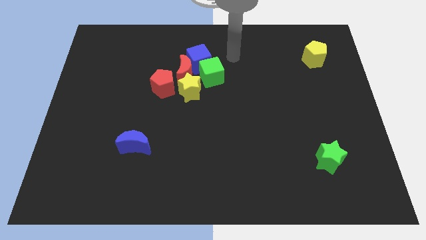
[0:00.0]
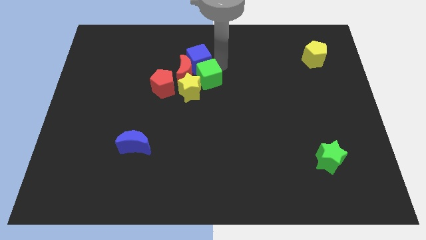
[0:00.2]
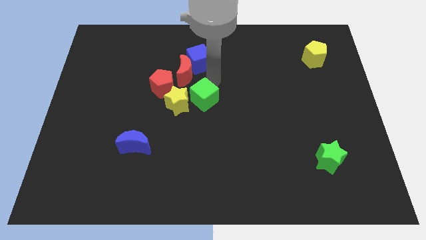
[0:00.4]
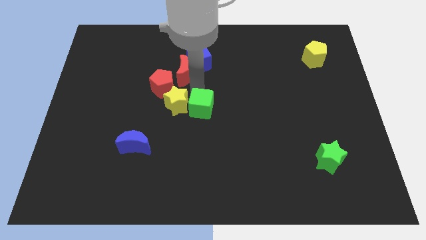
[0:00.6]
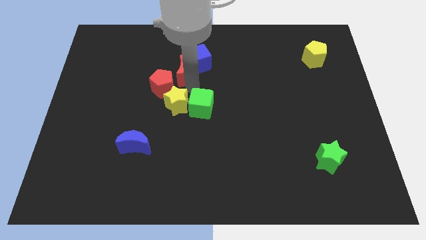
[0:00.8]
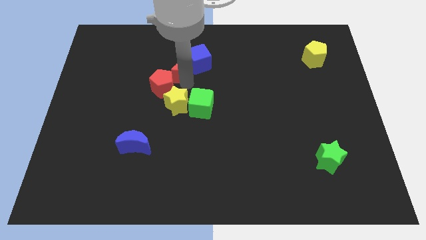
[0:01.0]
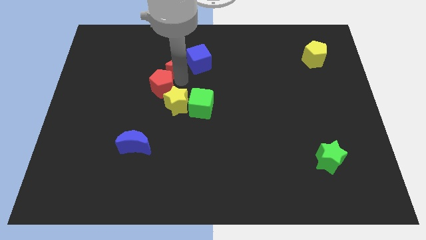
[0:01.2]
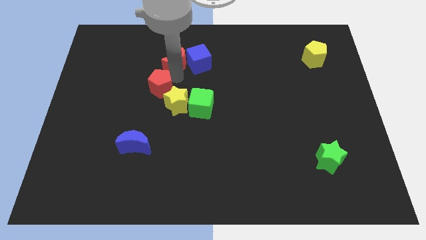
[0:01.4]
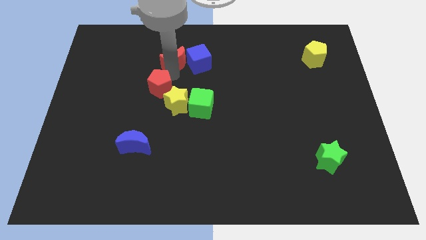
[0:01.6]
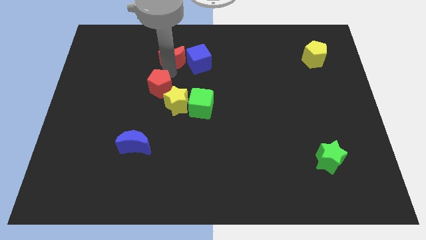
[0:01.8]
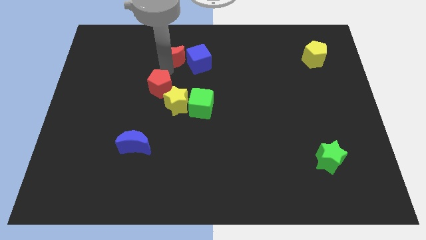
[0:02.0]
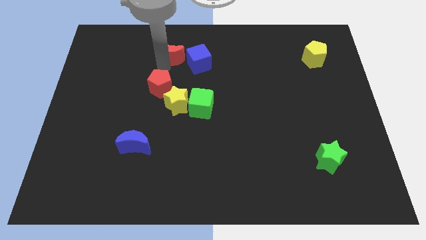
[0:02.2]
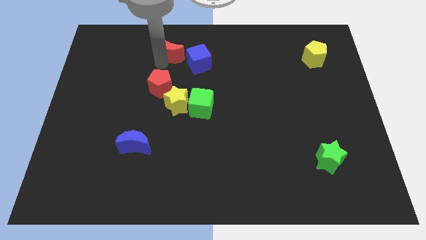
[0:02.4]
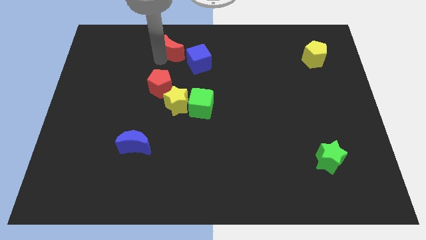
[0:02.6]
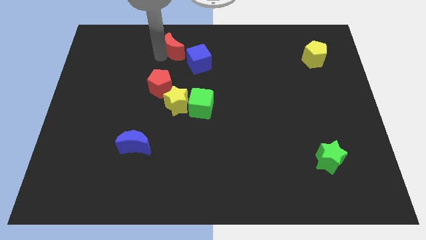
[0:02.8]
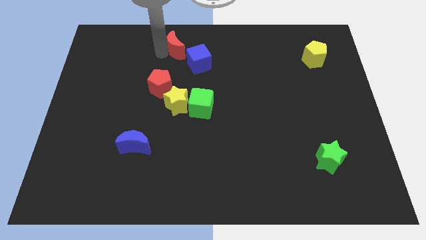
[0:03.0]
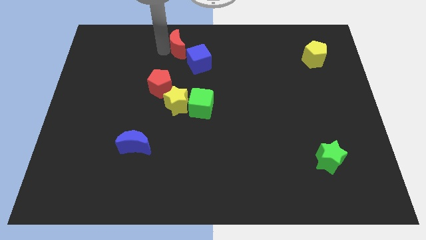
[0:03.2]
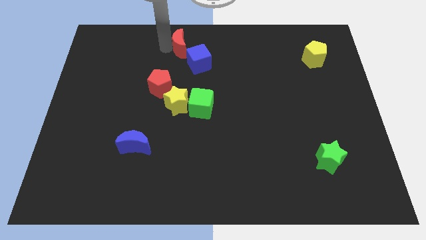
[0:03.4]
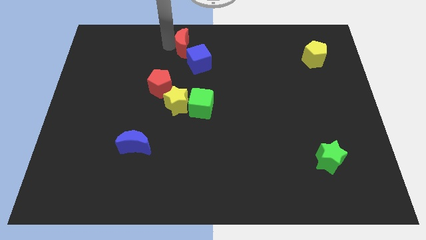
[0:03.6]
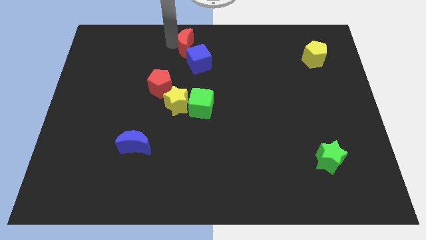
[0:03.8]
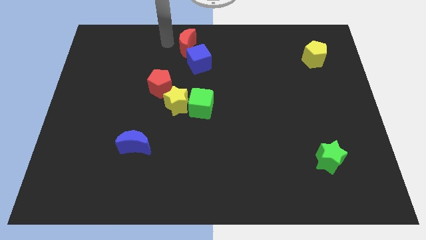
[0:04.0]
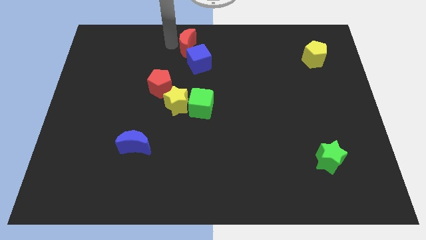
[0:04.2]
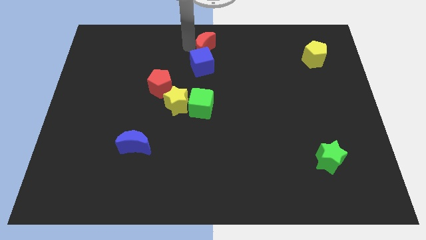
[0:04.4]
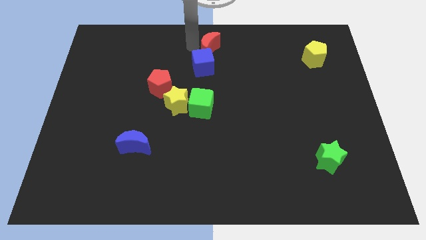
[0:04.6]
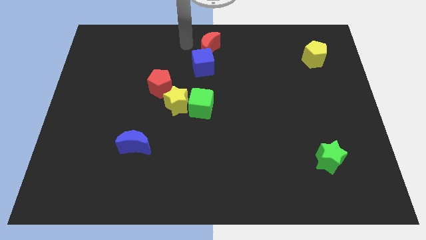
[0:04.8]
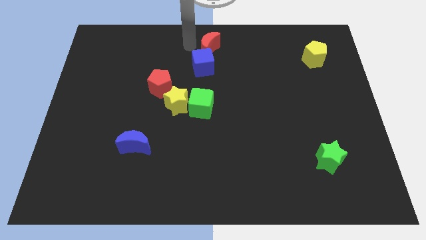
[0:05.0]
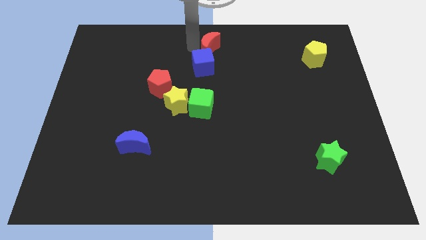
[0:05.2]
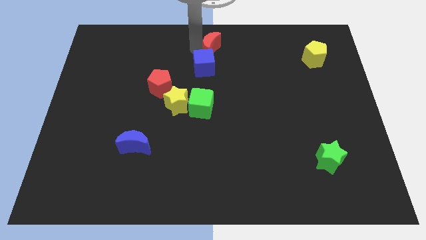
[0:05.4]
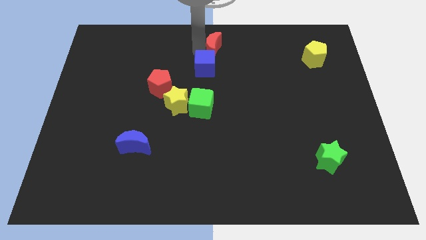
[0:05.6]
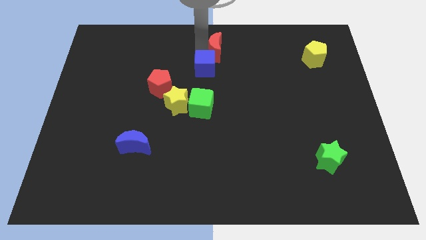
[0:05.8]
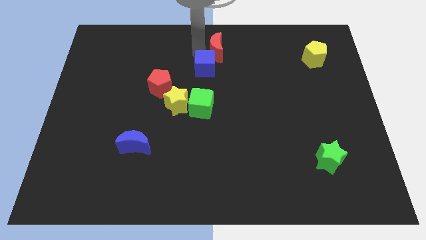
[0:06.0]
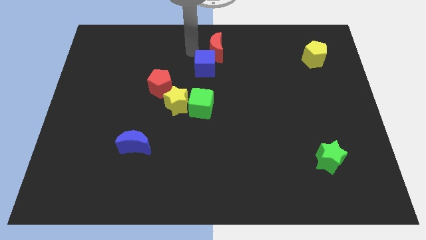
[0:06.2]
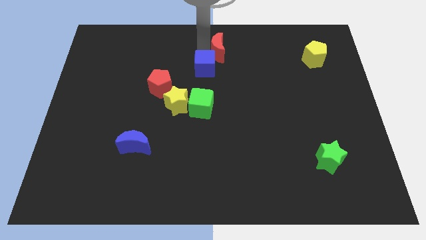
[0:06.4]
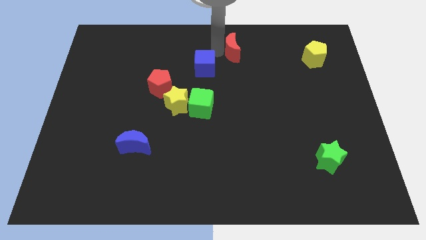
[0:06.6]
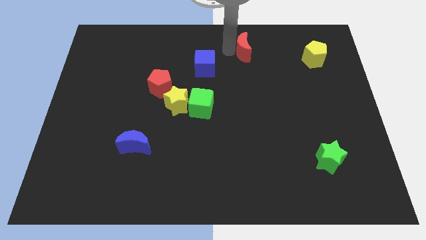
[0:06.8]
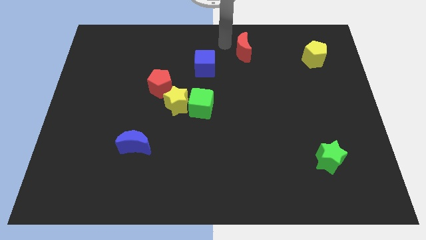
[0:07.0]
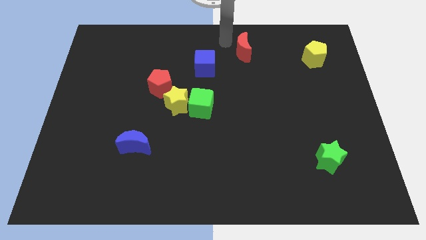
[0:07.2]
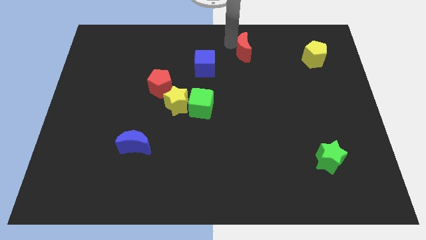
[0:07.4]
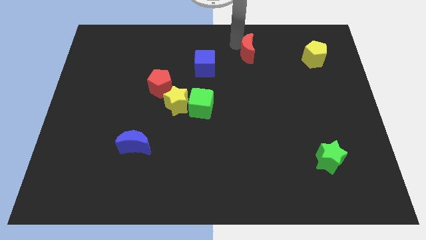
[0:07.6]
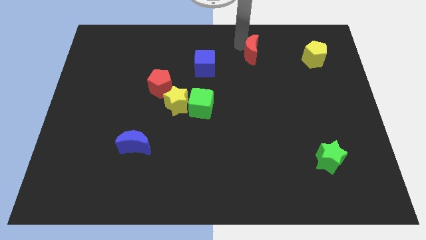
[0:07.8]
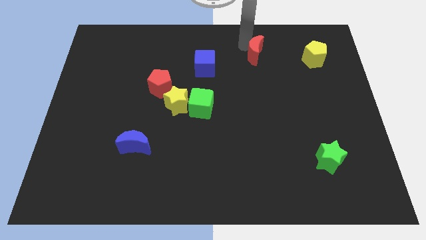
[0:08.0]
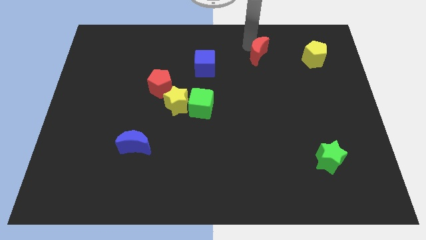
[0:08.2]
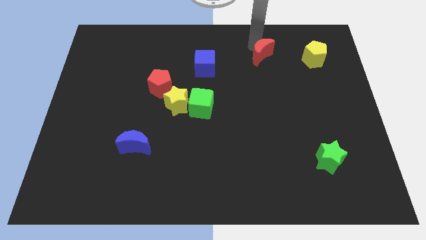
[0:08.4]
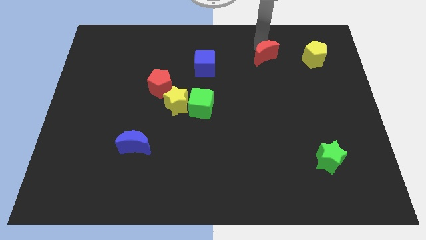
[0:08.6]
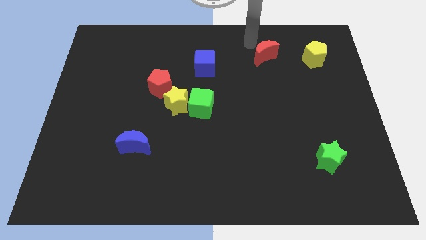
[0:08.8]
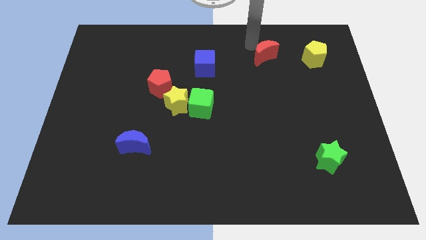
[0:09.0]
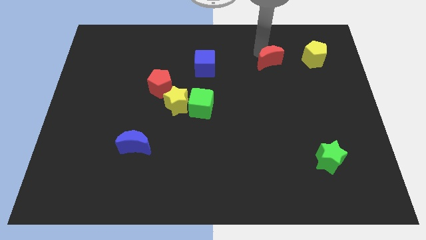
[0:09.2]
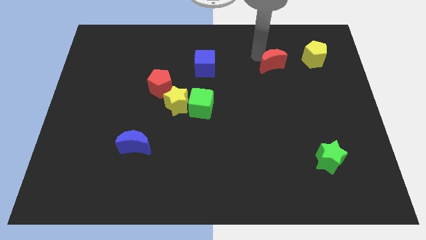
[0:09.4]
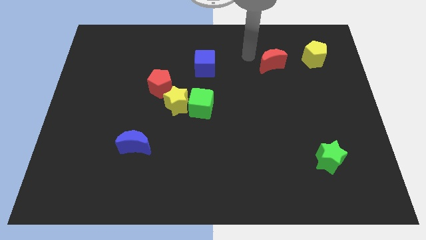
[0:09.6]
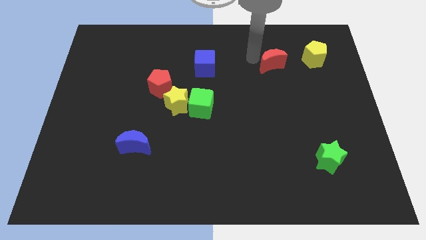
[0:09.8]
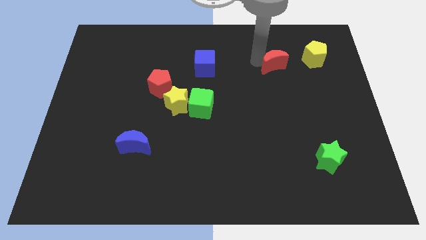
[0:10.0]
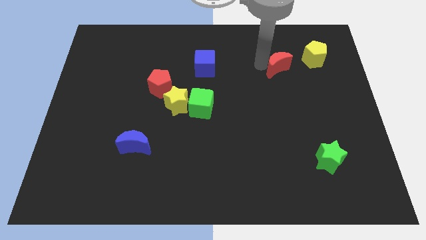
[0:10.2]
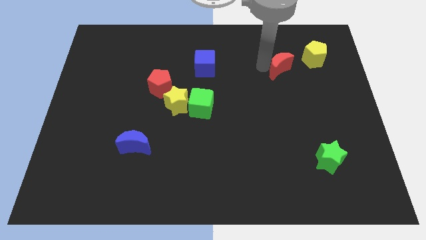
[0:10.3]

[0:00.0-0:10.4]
put the red moon diagonally down and to the left of the yellow pentagon

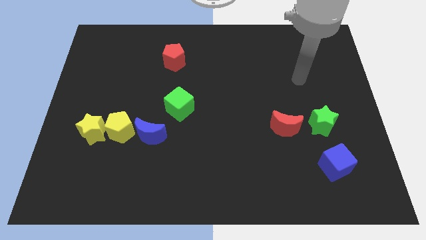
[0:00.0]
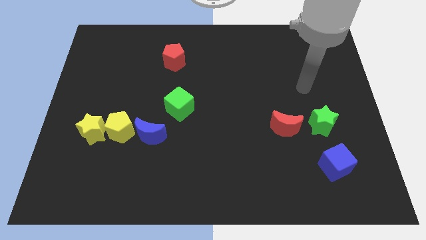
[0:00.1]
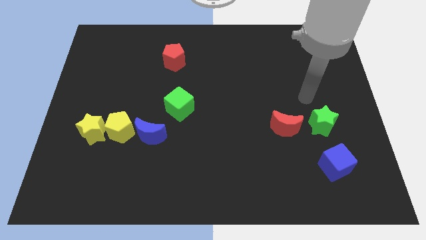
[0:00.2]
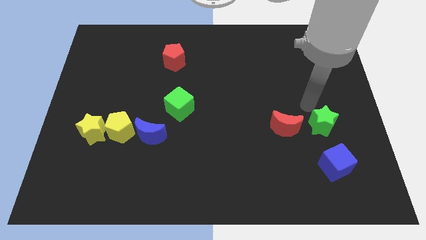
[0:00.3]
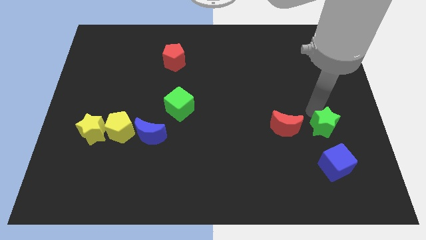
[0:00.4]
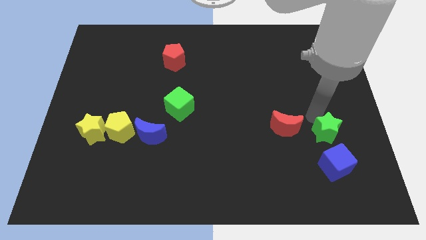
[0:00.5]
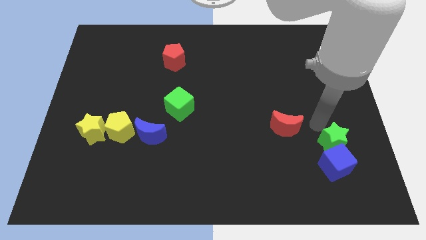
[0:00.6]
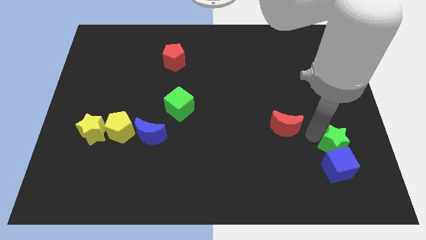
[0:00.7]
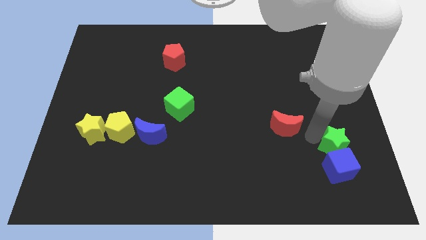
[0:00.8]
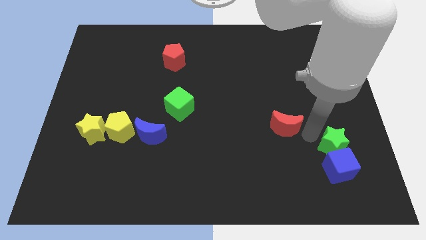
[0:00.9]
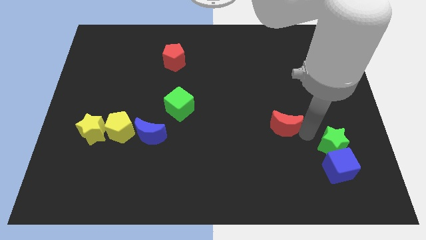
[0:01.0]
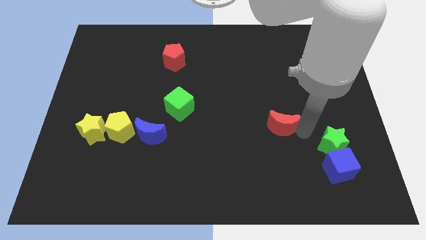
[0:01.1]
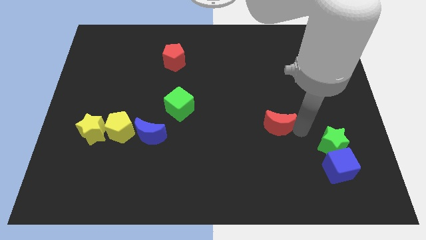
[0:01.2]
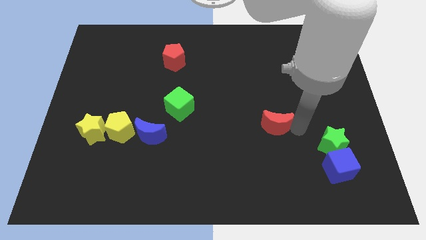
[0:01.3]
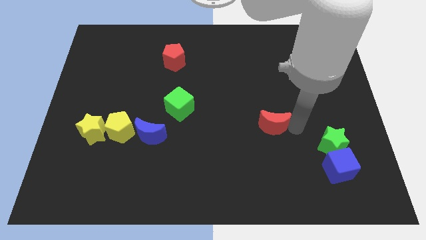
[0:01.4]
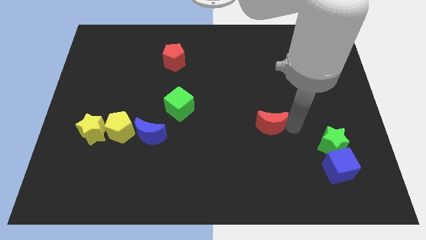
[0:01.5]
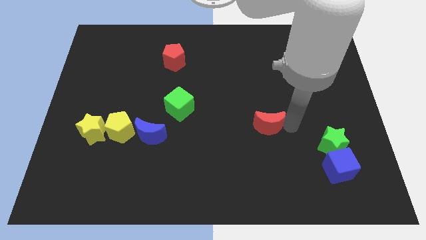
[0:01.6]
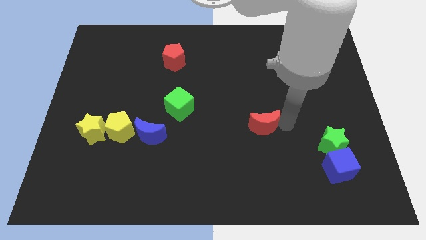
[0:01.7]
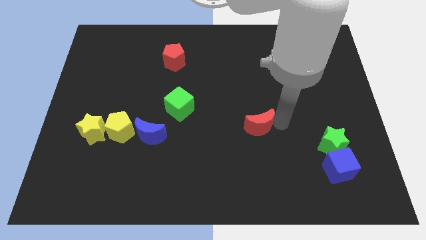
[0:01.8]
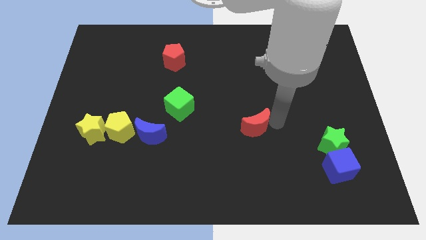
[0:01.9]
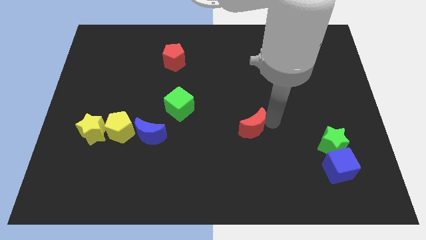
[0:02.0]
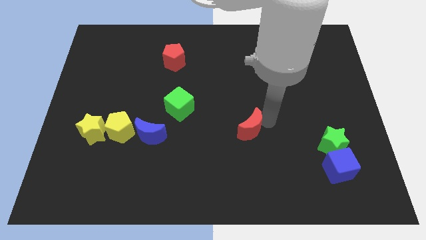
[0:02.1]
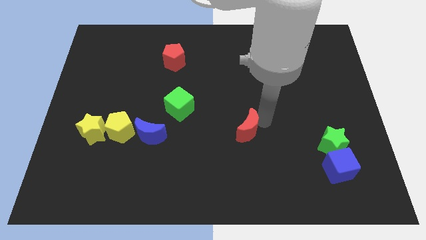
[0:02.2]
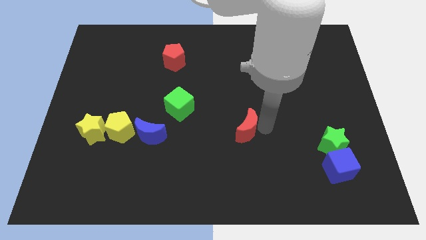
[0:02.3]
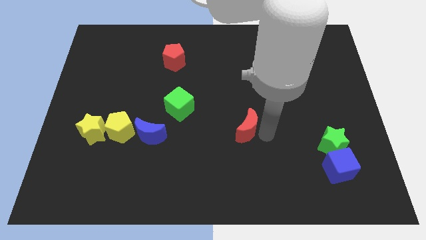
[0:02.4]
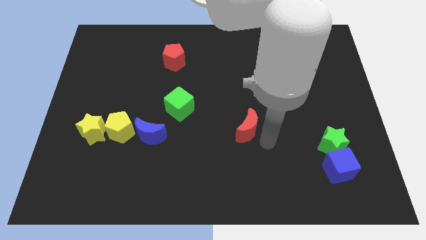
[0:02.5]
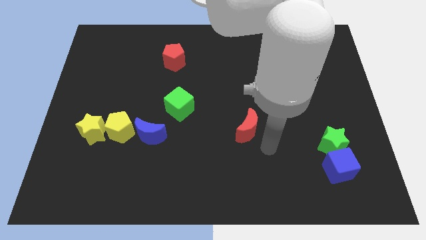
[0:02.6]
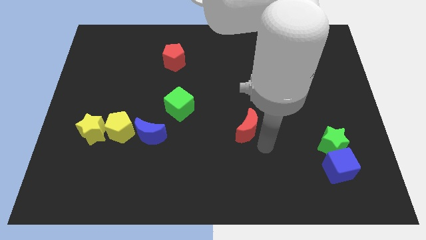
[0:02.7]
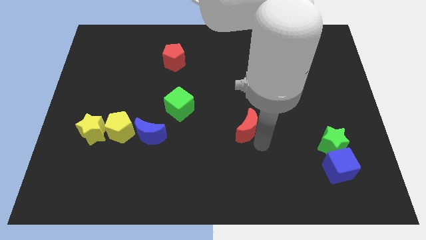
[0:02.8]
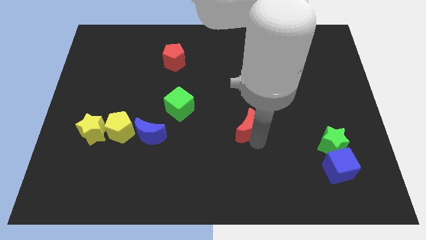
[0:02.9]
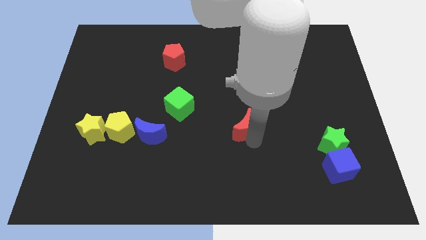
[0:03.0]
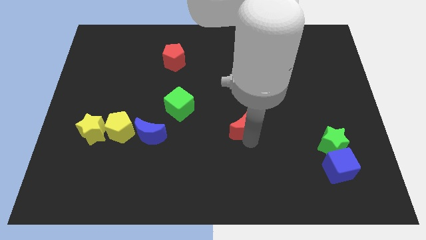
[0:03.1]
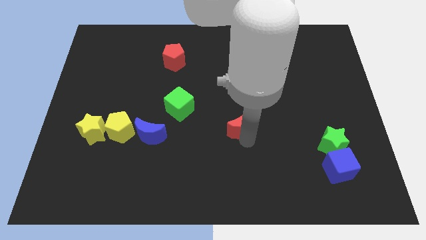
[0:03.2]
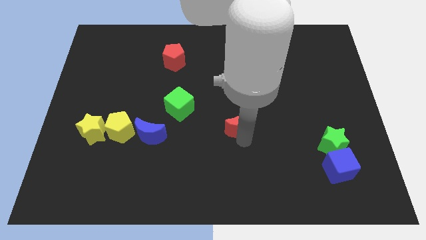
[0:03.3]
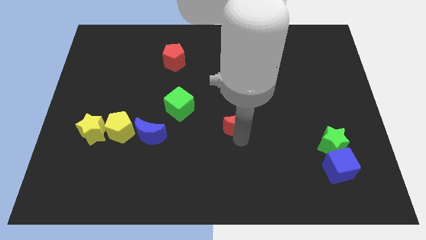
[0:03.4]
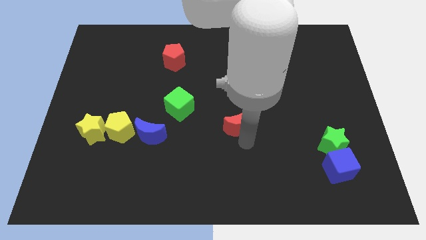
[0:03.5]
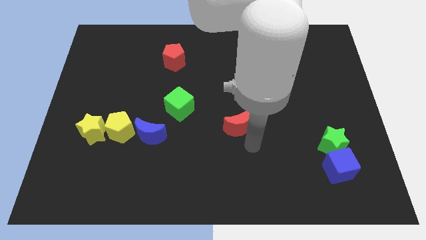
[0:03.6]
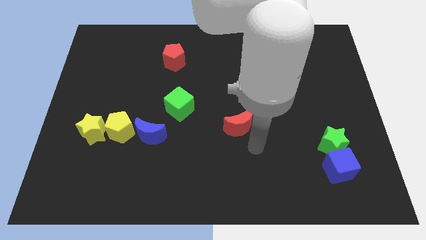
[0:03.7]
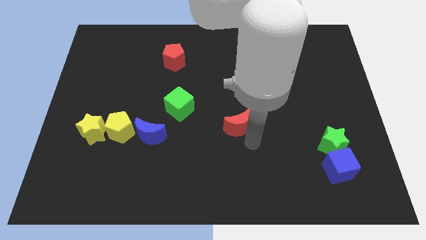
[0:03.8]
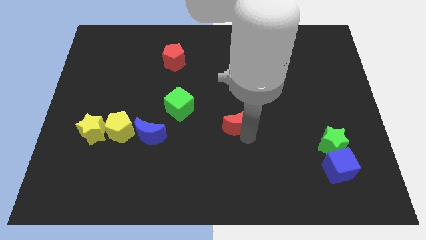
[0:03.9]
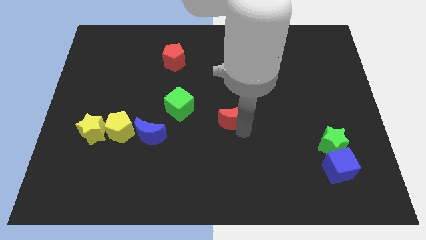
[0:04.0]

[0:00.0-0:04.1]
put the red moon just right of the green cube
